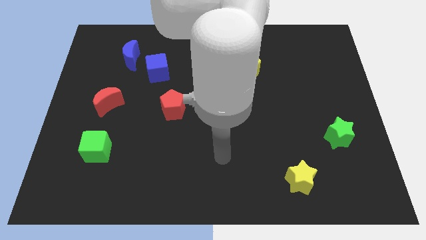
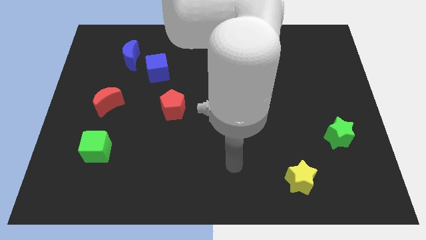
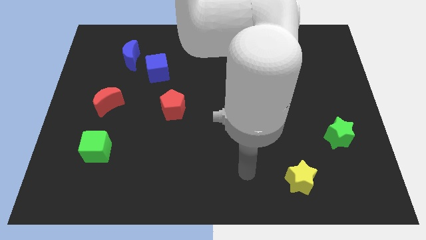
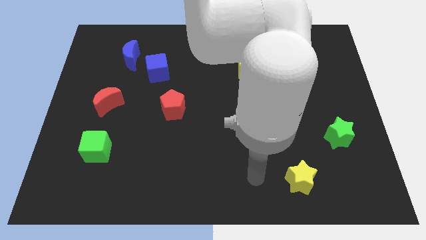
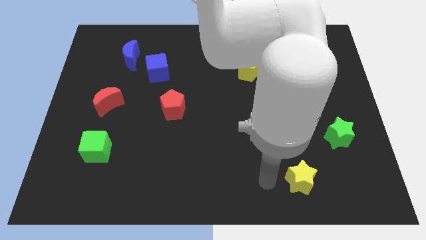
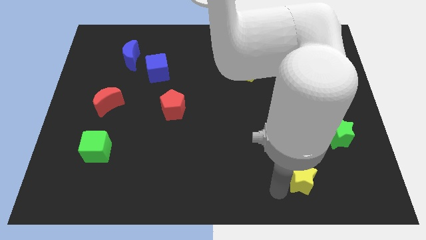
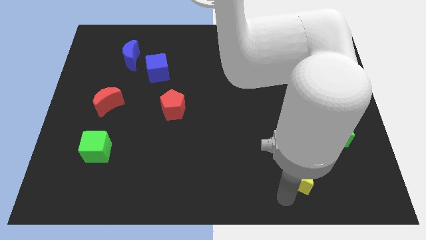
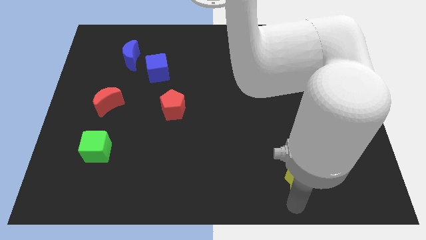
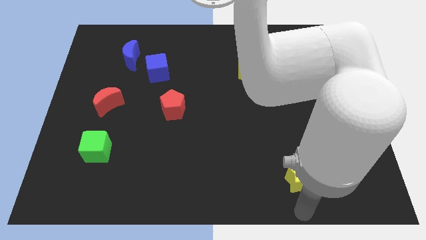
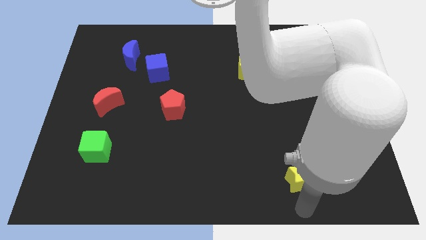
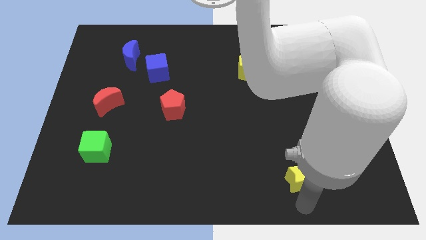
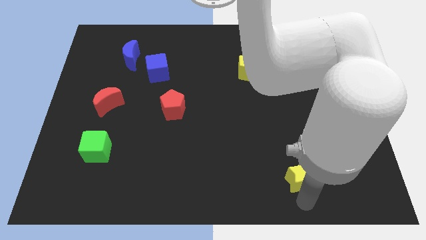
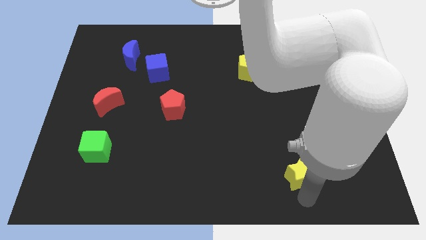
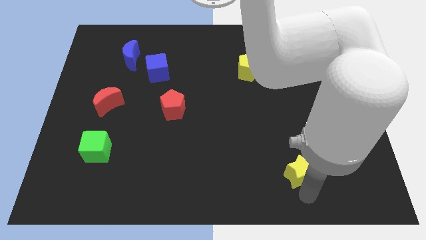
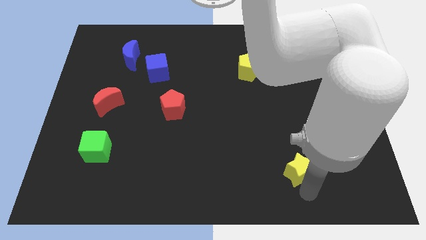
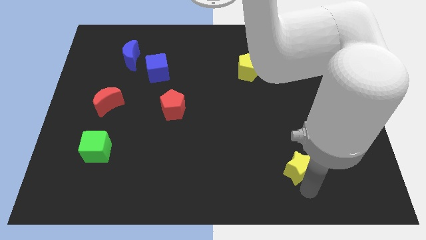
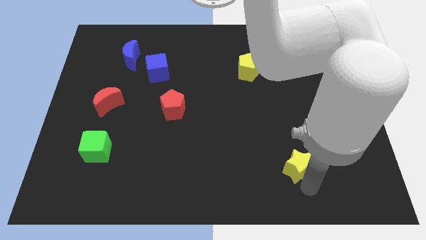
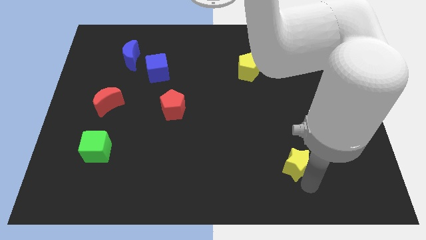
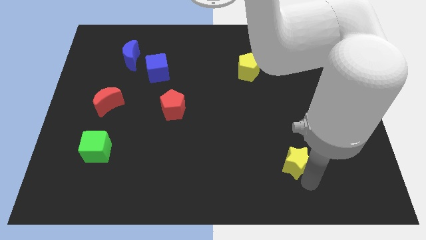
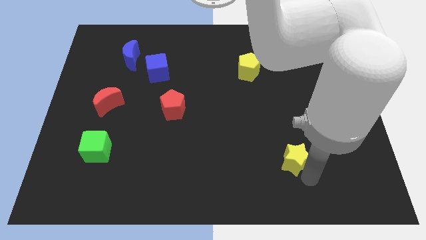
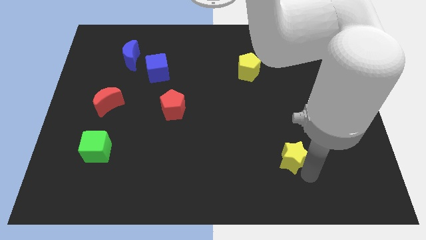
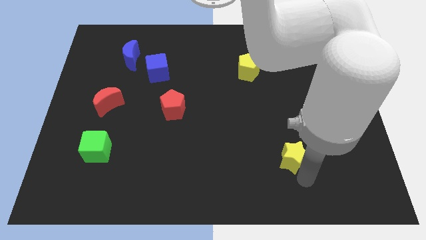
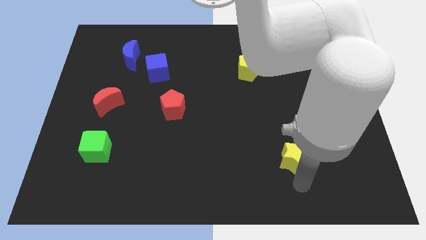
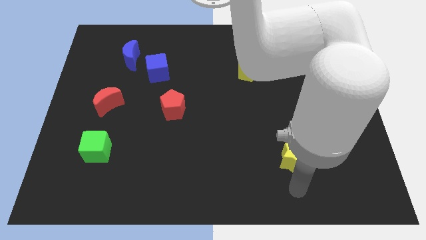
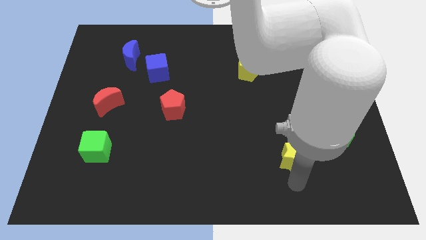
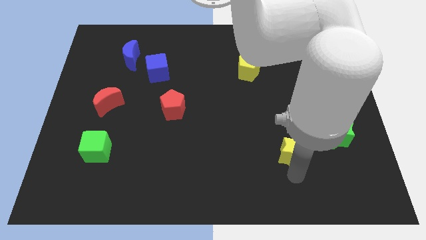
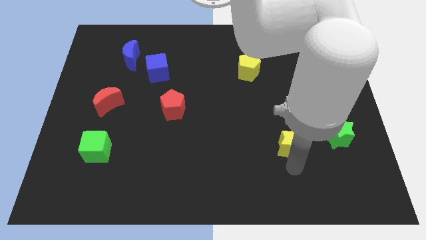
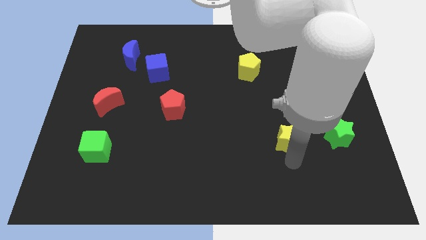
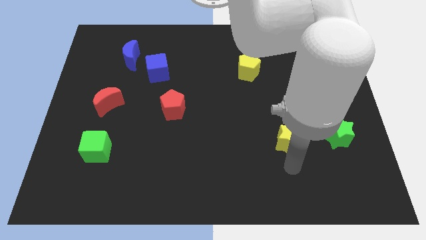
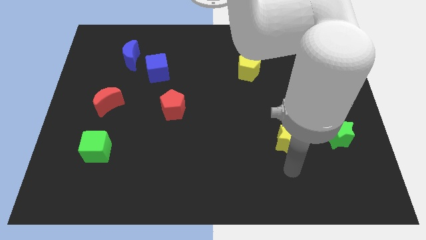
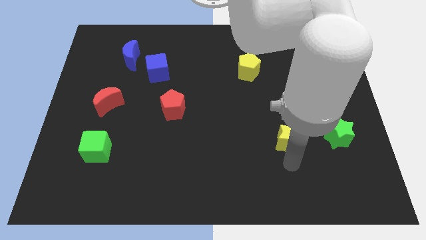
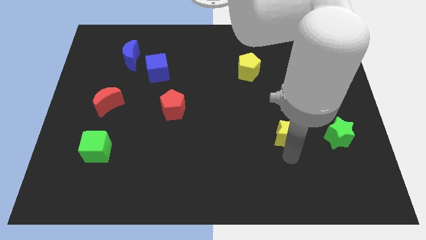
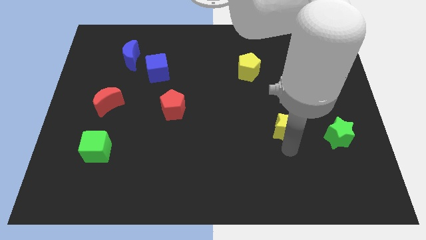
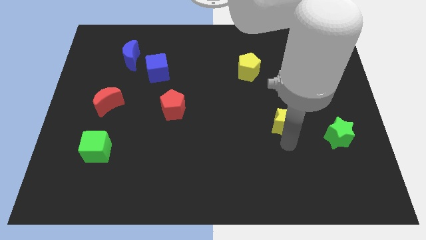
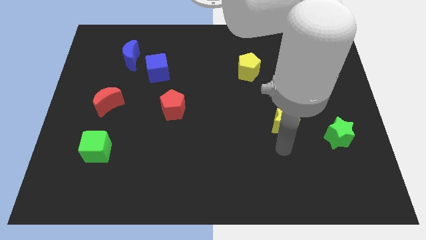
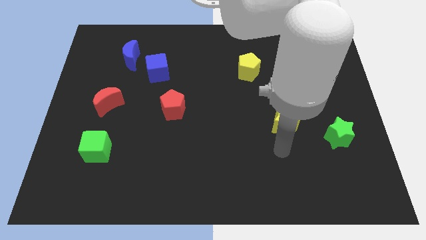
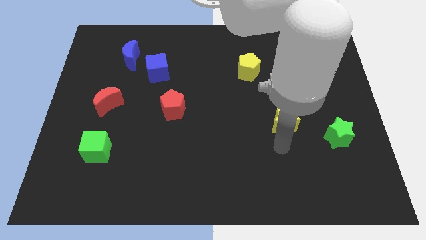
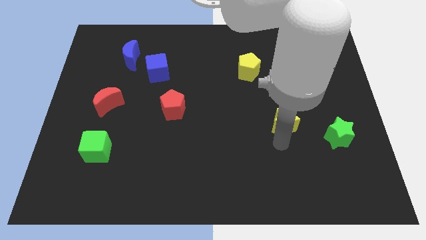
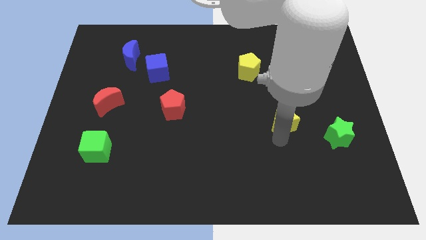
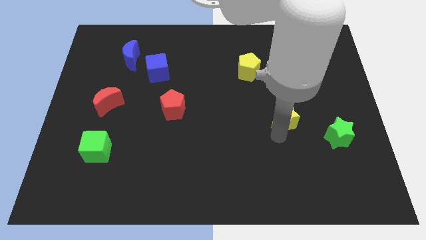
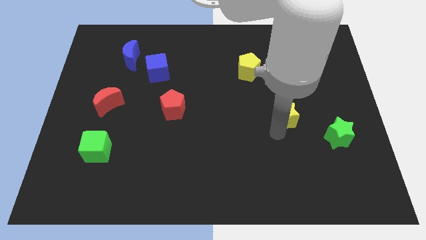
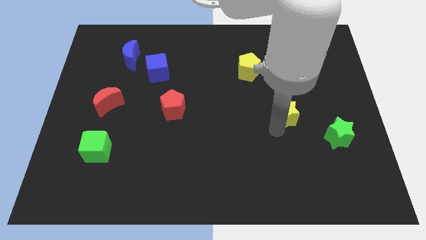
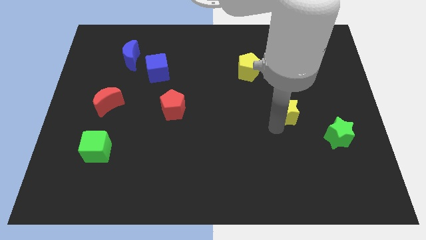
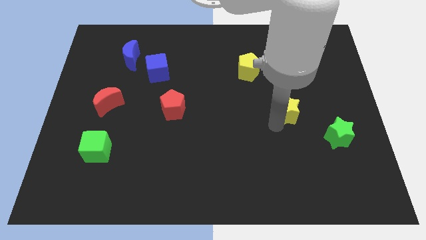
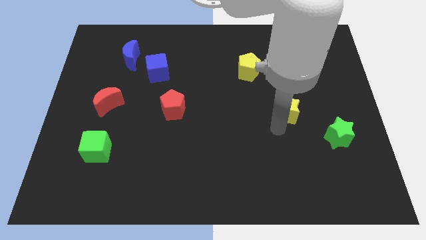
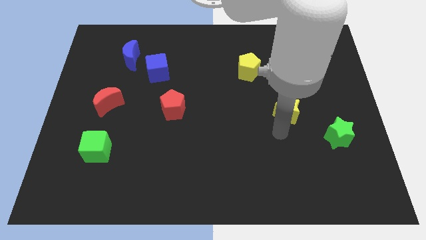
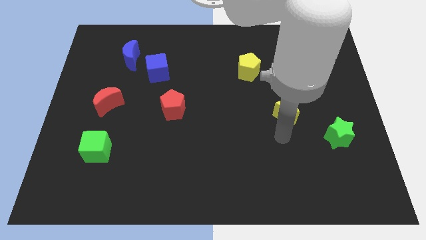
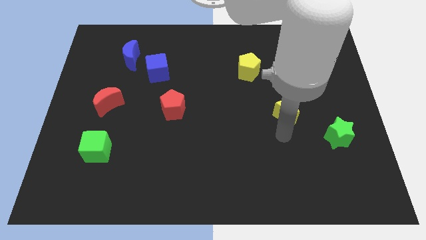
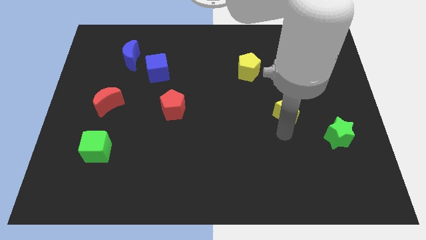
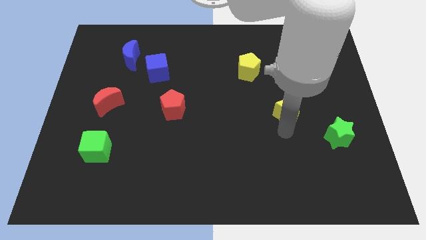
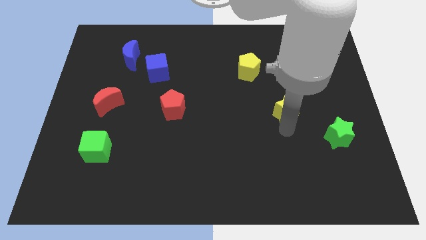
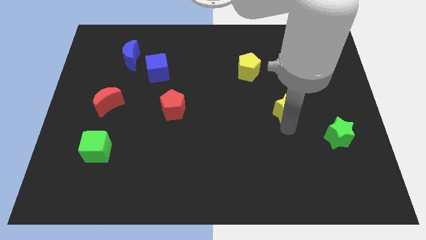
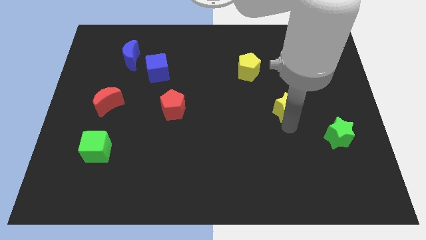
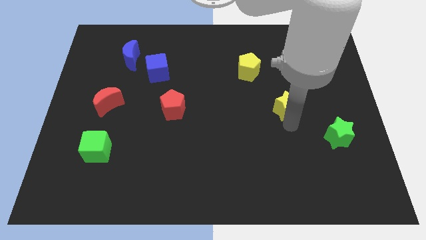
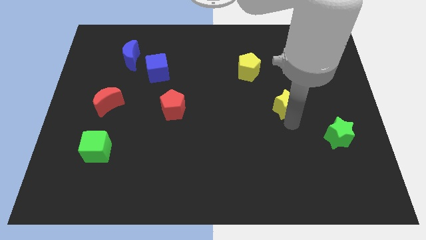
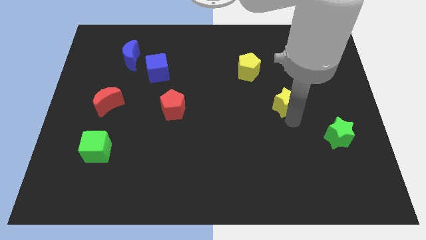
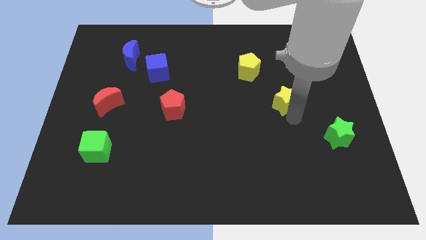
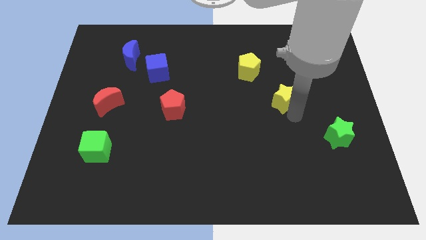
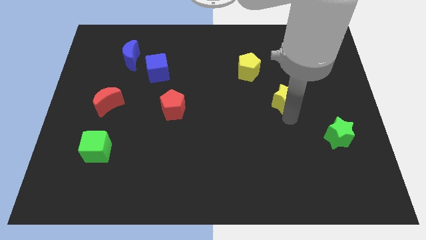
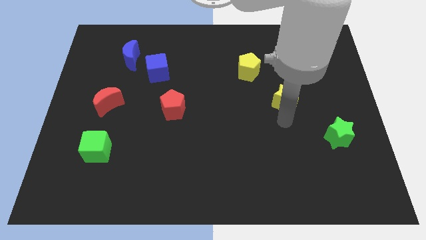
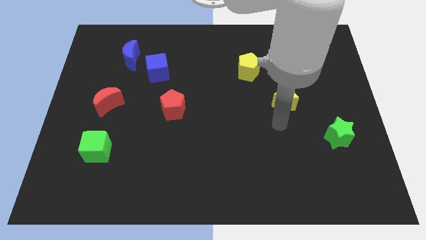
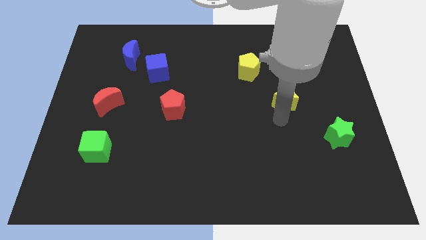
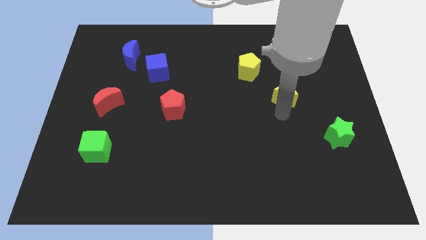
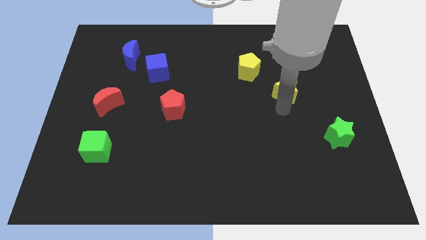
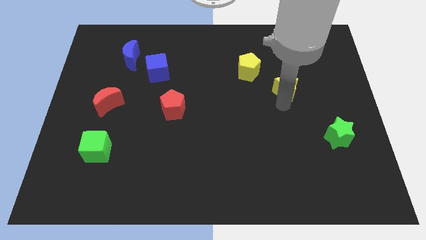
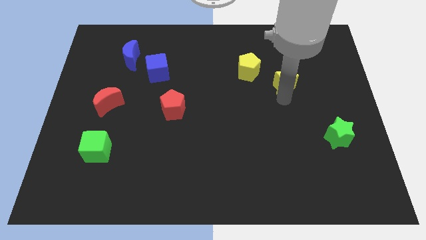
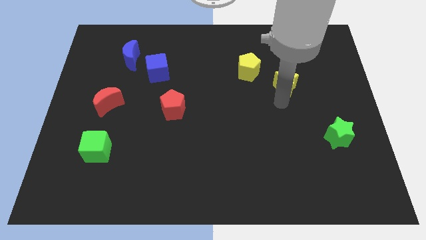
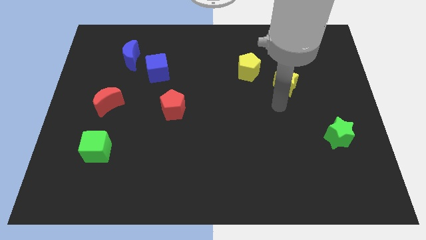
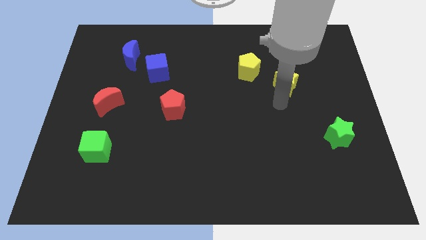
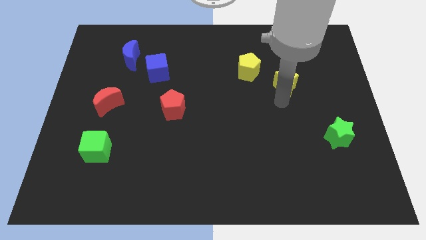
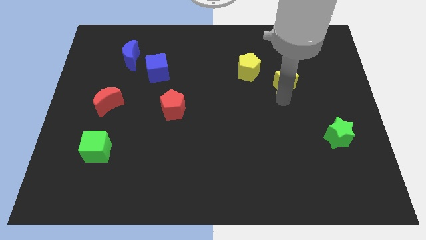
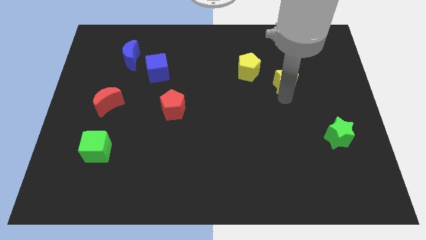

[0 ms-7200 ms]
move the yellow star to the right of the yellow pentagon
